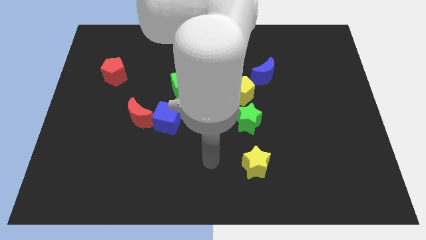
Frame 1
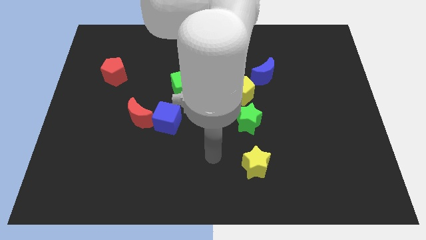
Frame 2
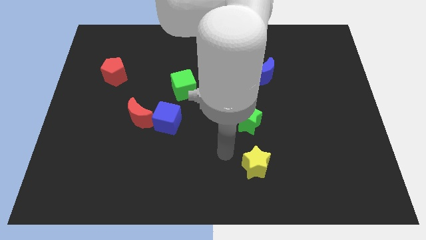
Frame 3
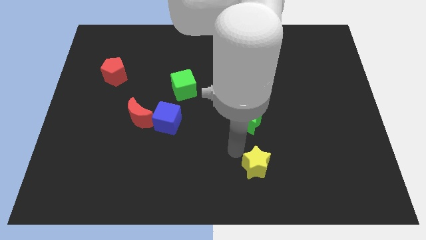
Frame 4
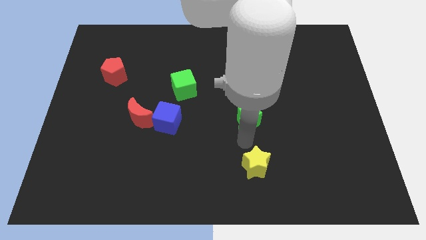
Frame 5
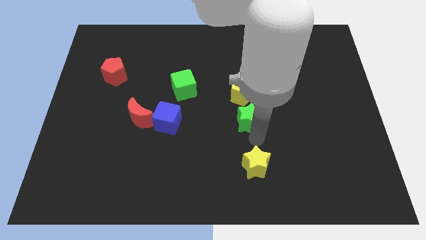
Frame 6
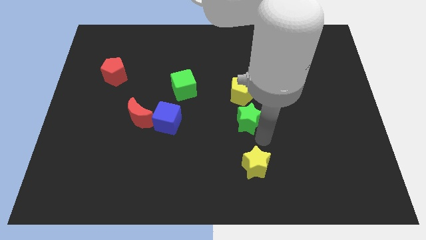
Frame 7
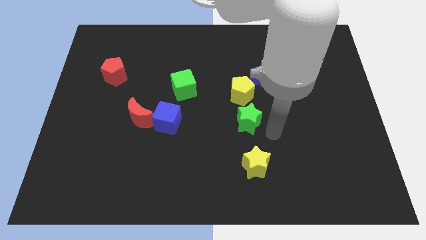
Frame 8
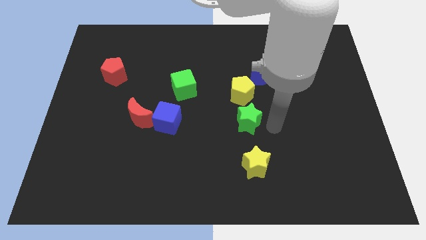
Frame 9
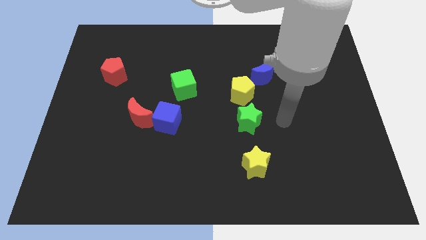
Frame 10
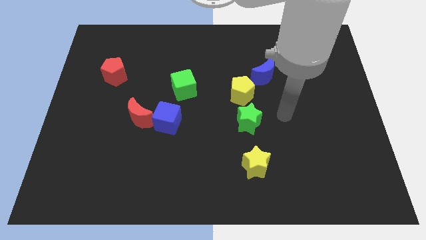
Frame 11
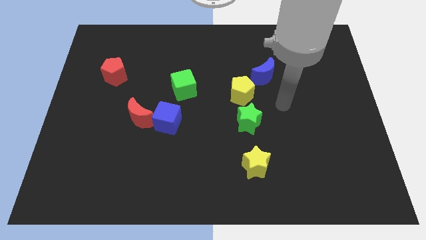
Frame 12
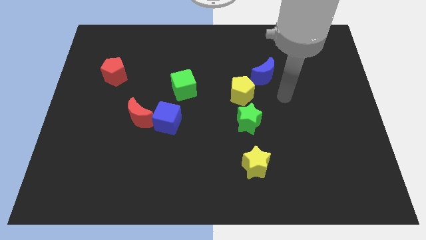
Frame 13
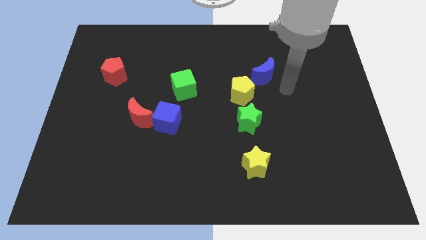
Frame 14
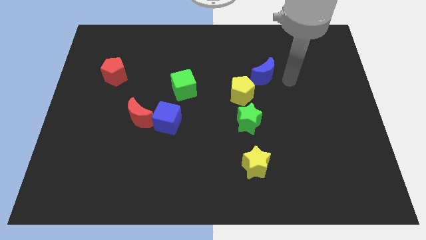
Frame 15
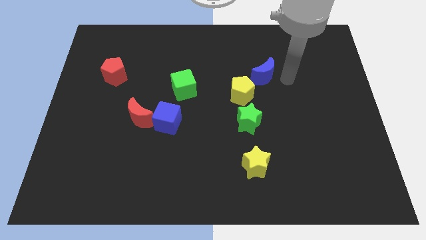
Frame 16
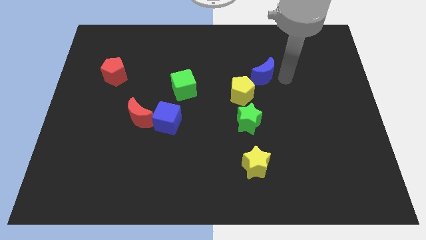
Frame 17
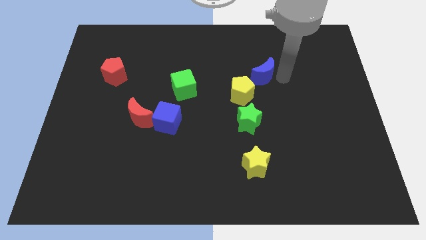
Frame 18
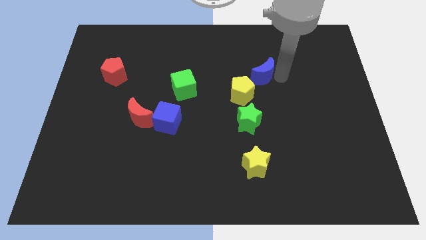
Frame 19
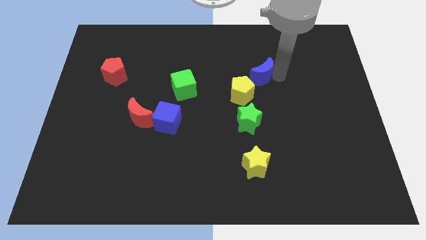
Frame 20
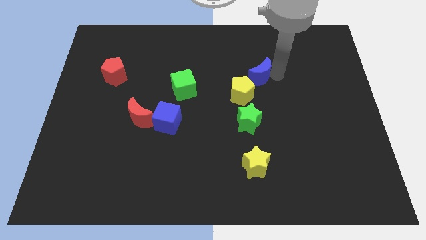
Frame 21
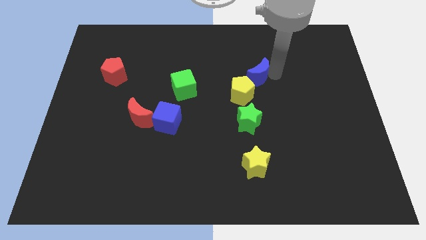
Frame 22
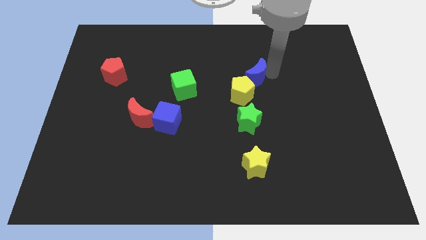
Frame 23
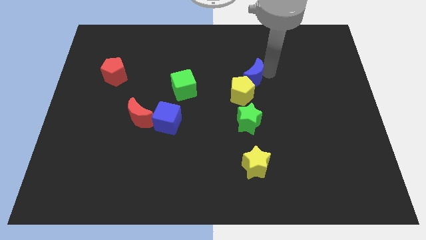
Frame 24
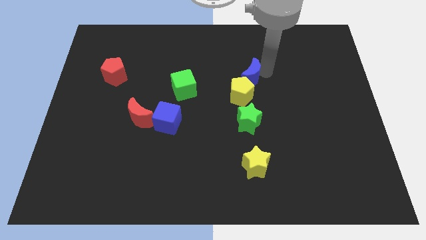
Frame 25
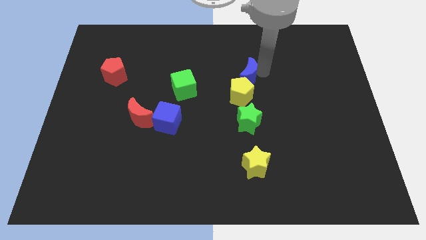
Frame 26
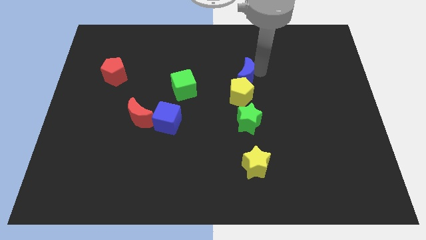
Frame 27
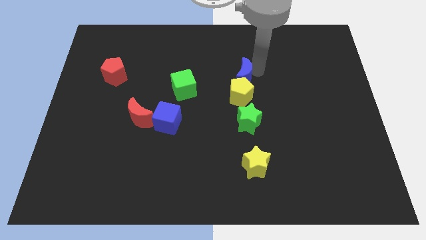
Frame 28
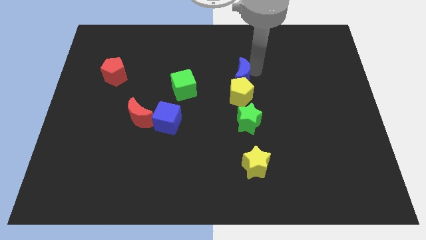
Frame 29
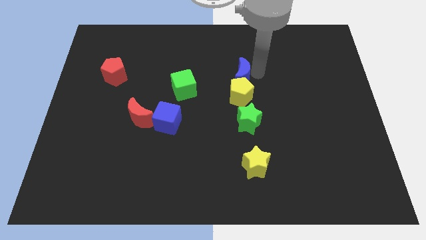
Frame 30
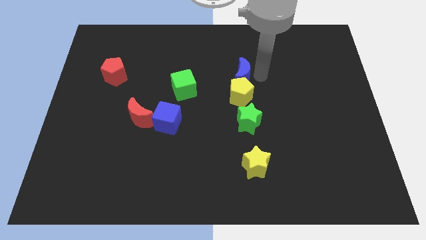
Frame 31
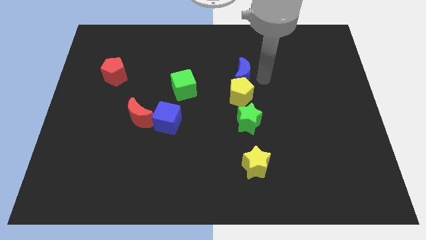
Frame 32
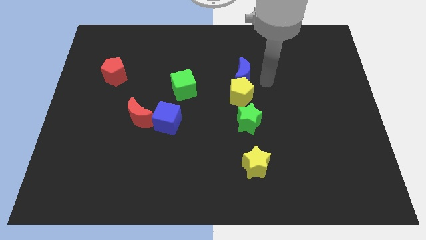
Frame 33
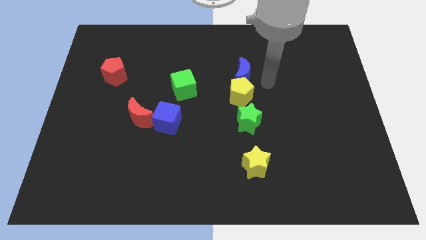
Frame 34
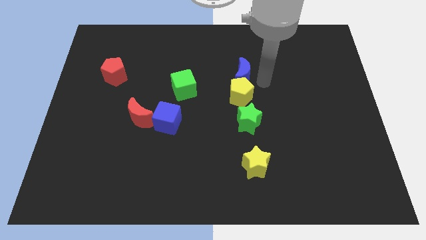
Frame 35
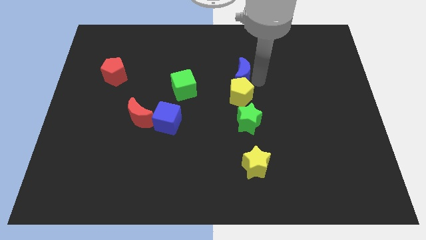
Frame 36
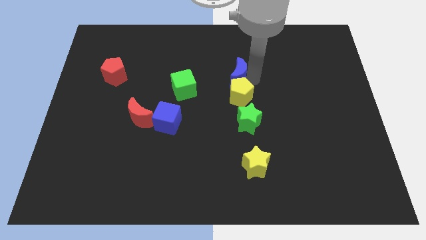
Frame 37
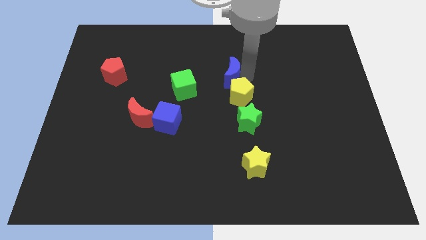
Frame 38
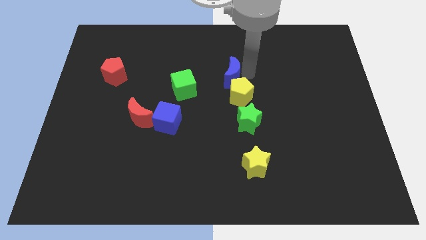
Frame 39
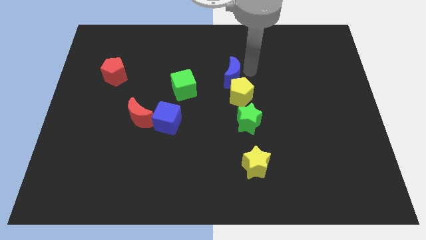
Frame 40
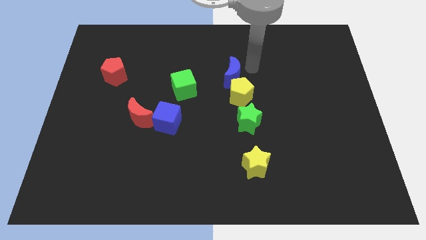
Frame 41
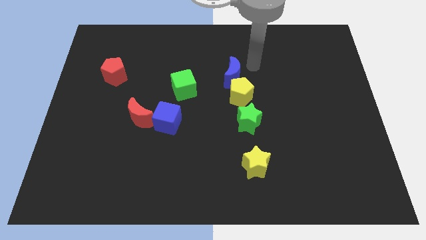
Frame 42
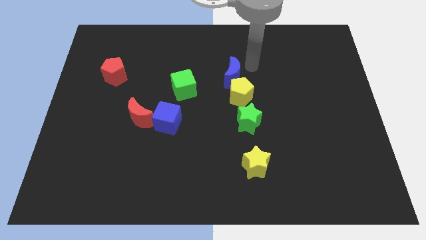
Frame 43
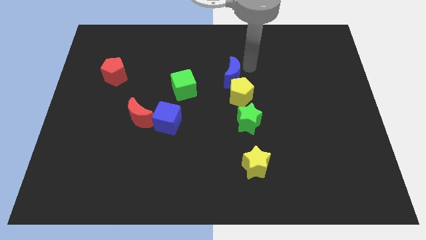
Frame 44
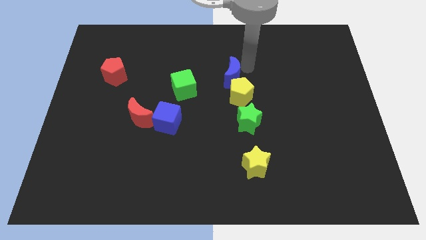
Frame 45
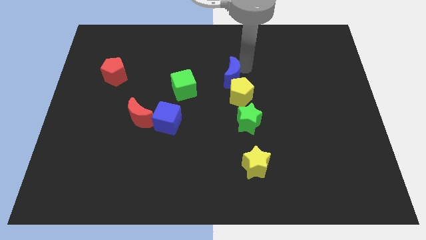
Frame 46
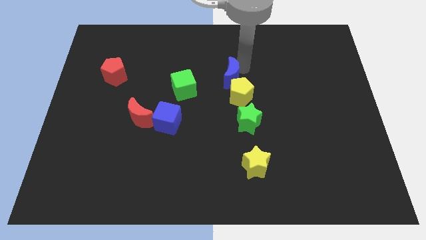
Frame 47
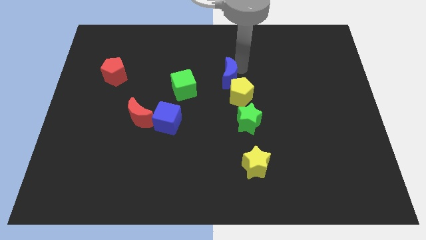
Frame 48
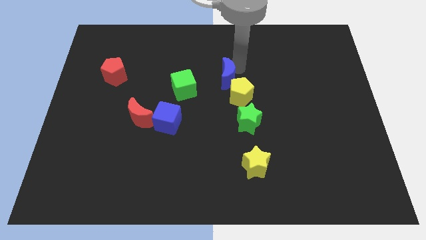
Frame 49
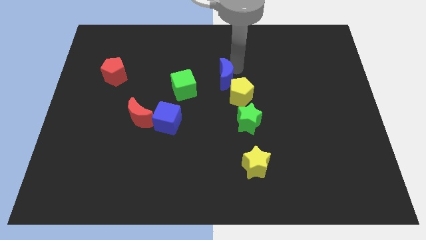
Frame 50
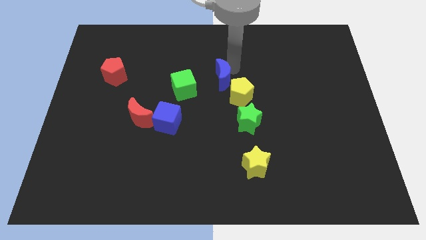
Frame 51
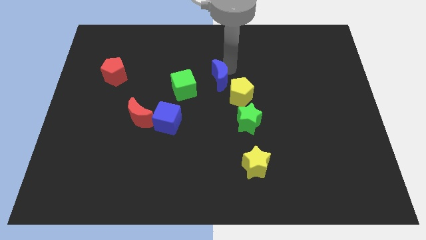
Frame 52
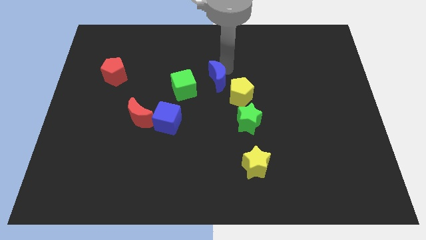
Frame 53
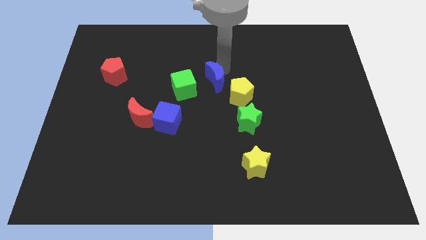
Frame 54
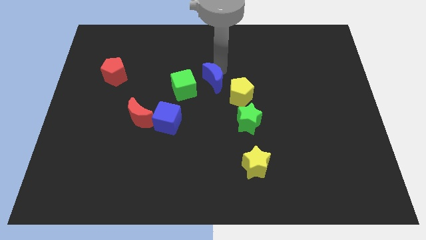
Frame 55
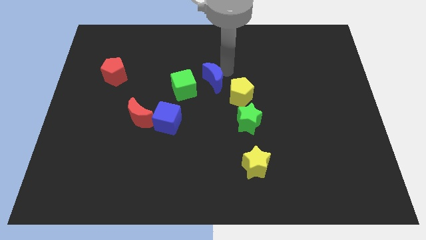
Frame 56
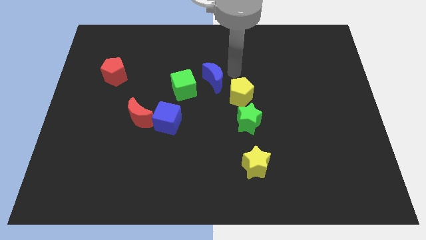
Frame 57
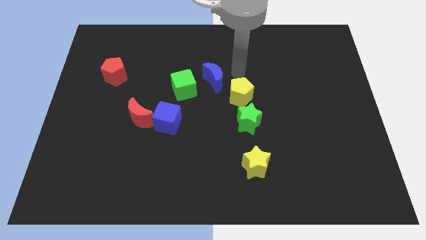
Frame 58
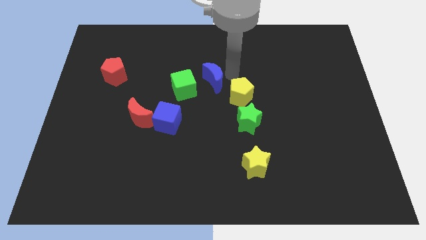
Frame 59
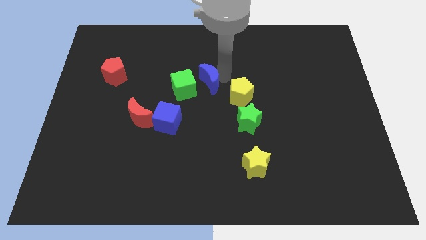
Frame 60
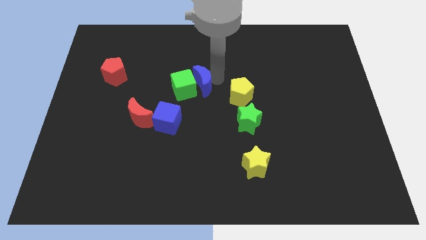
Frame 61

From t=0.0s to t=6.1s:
put the blue moon next to the green cube

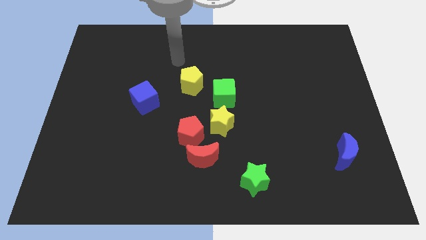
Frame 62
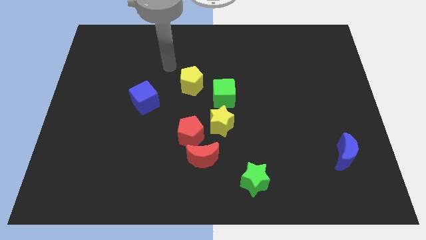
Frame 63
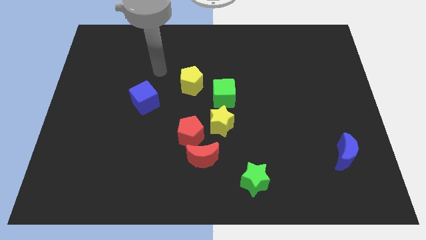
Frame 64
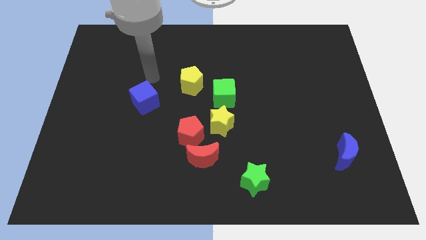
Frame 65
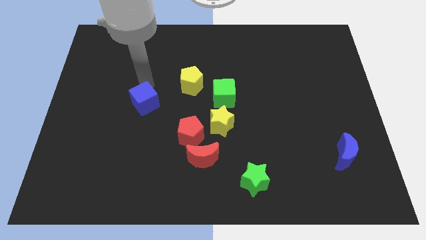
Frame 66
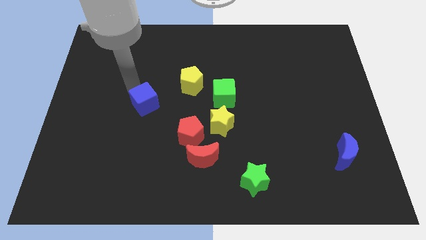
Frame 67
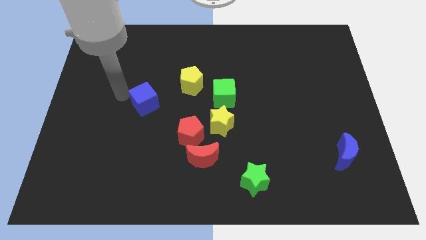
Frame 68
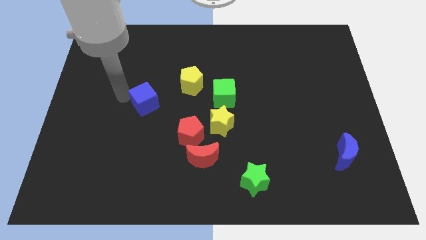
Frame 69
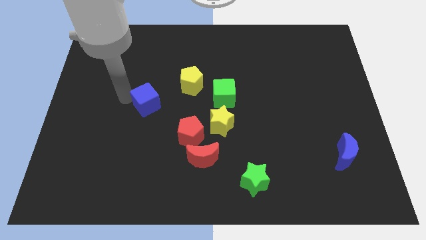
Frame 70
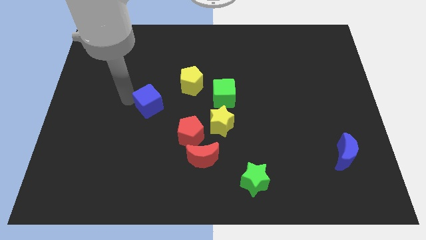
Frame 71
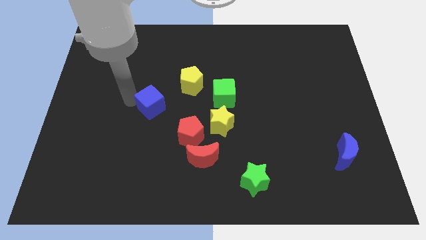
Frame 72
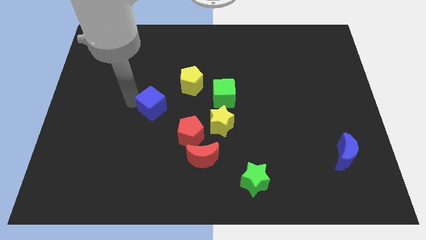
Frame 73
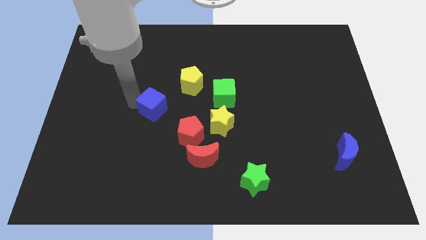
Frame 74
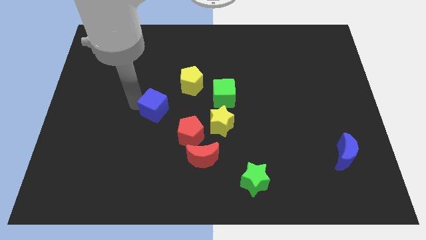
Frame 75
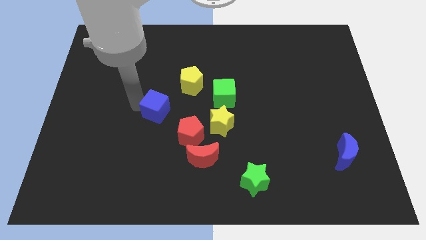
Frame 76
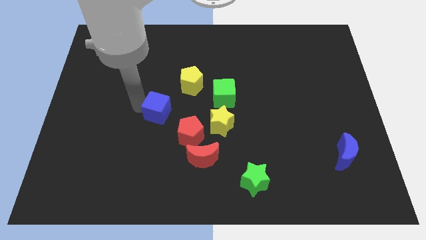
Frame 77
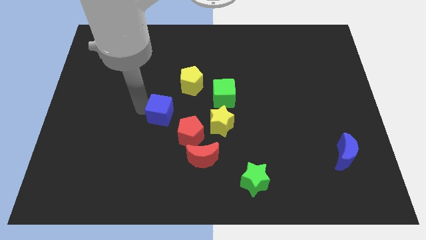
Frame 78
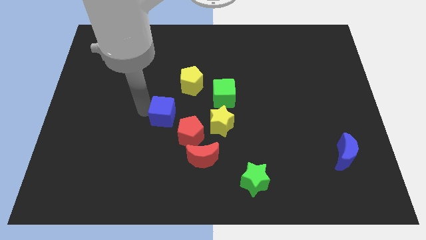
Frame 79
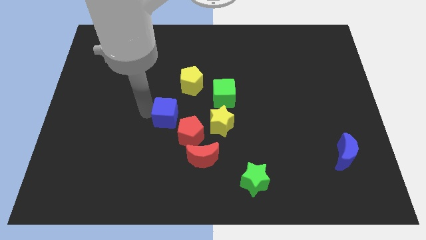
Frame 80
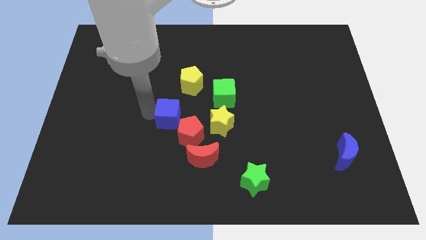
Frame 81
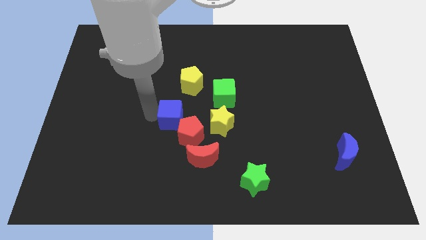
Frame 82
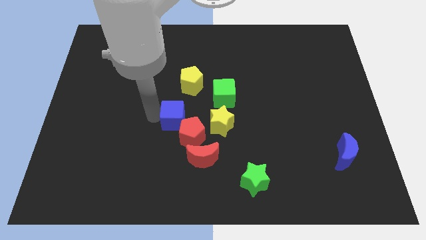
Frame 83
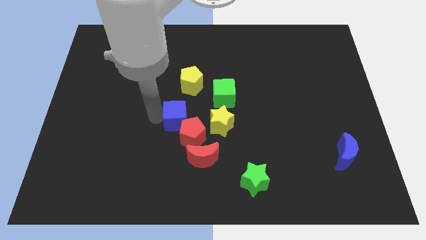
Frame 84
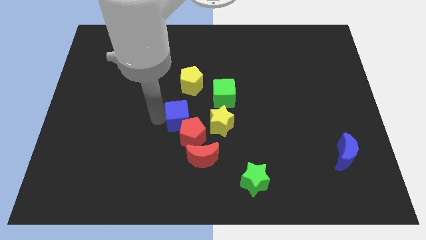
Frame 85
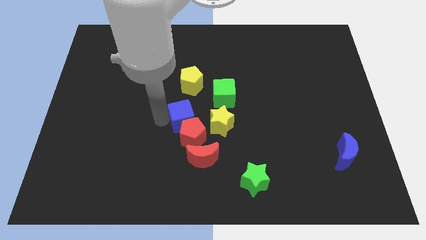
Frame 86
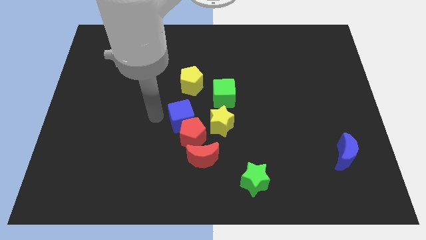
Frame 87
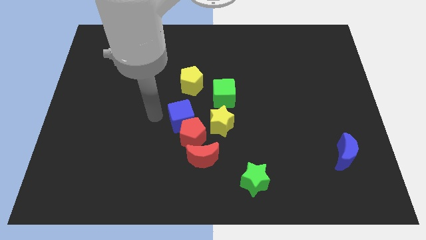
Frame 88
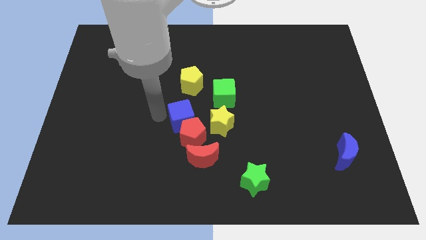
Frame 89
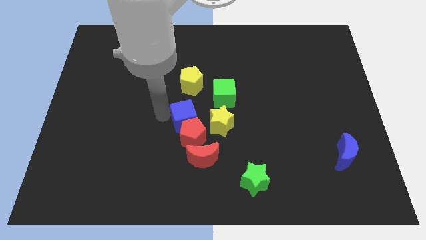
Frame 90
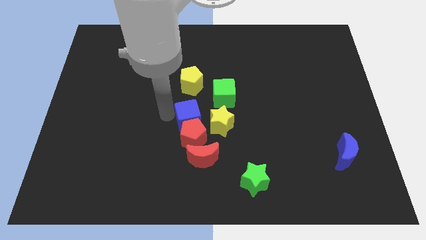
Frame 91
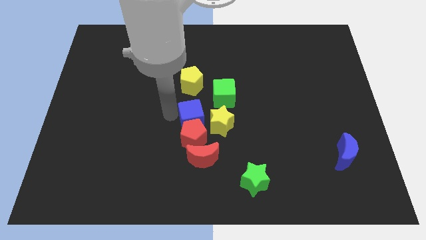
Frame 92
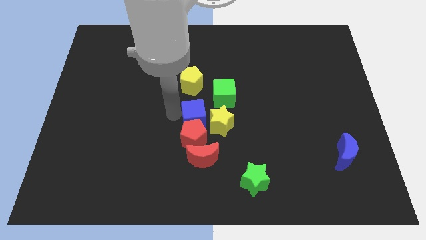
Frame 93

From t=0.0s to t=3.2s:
put the blue cube towards the yellow star
